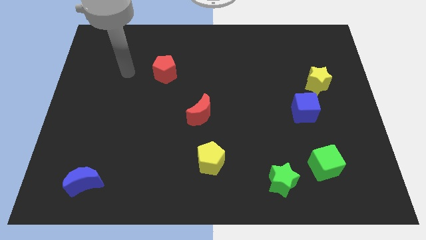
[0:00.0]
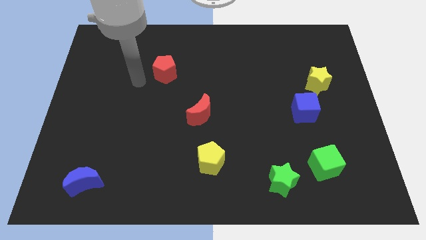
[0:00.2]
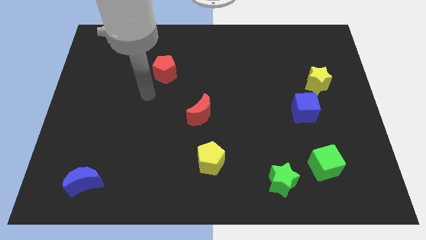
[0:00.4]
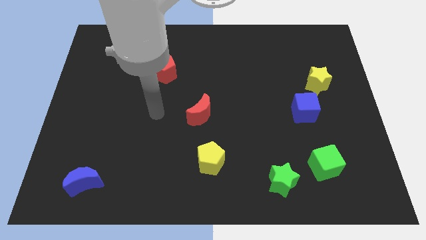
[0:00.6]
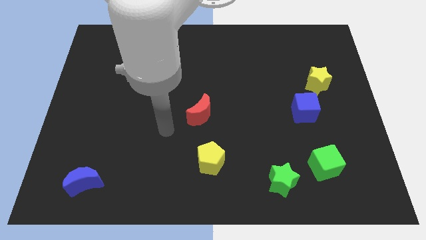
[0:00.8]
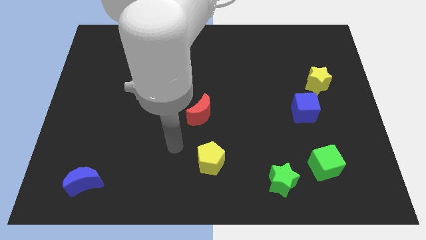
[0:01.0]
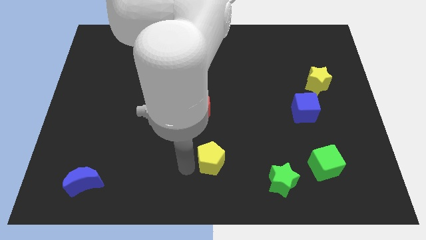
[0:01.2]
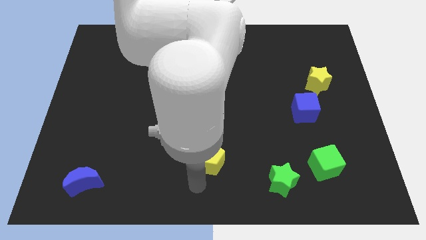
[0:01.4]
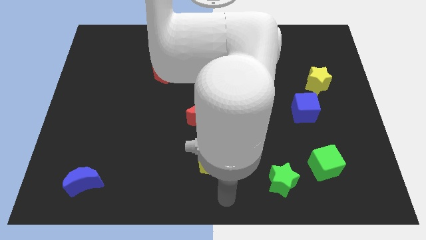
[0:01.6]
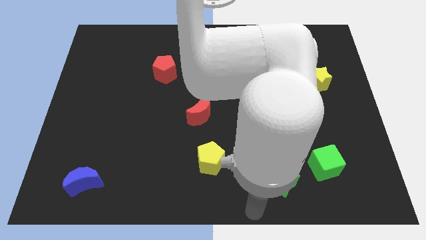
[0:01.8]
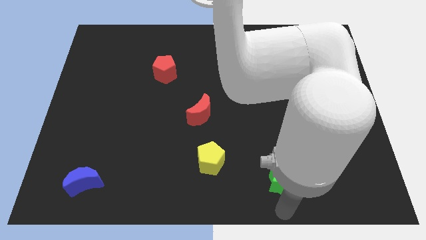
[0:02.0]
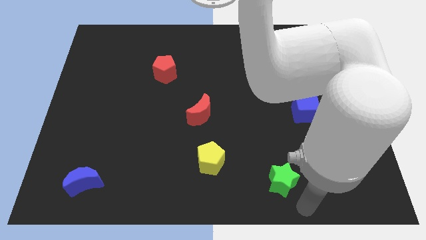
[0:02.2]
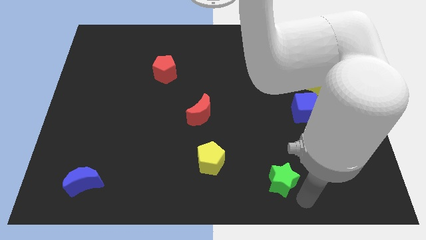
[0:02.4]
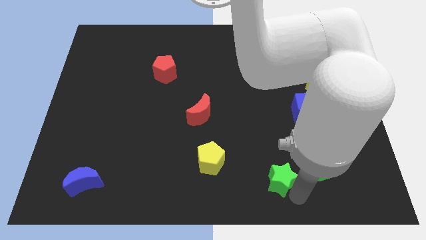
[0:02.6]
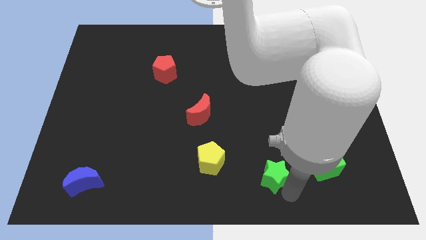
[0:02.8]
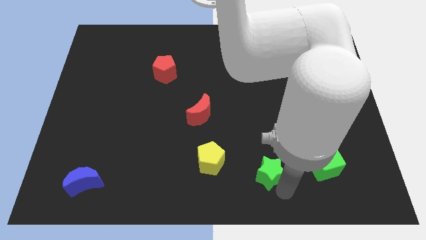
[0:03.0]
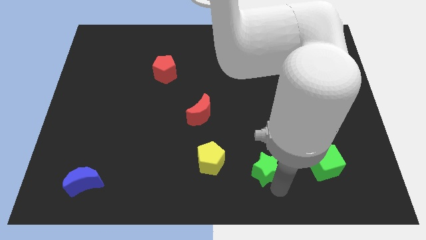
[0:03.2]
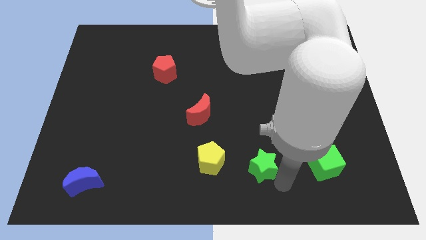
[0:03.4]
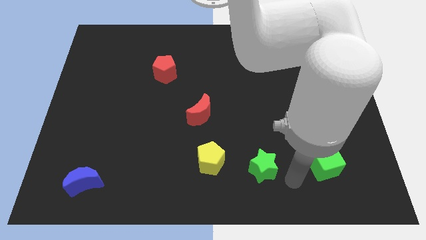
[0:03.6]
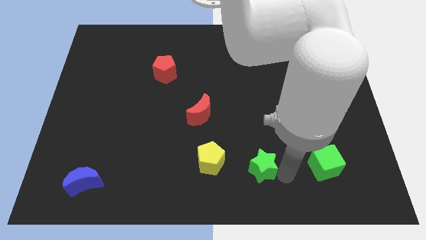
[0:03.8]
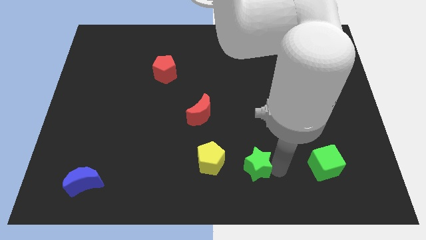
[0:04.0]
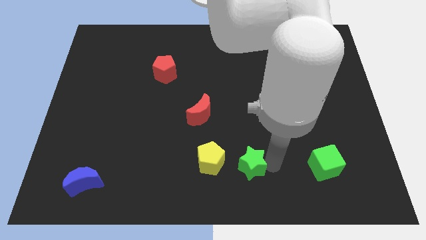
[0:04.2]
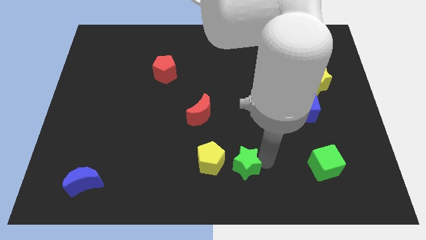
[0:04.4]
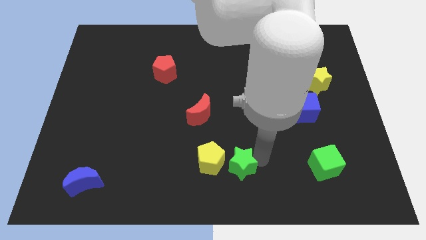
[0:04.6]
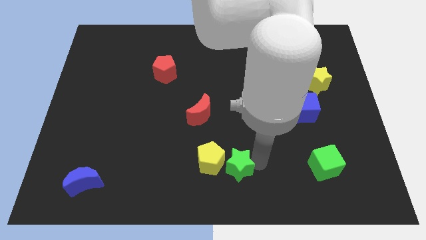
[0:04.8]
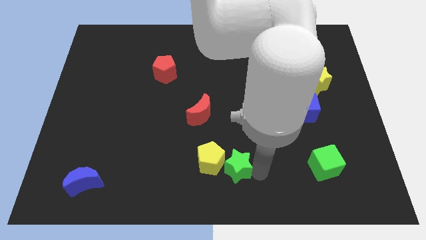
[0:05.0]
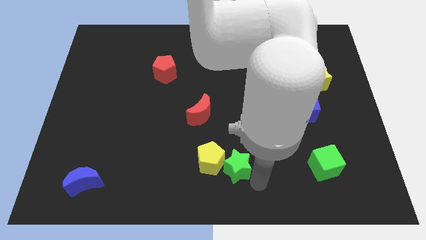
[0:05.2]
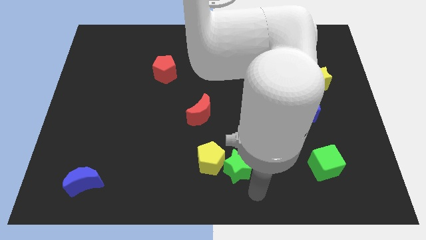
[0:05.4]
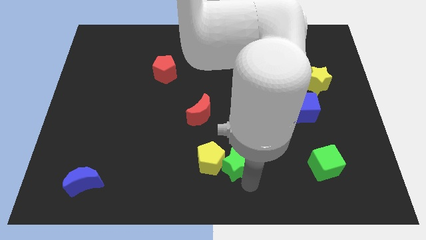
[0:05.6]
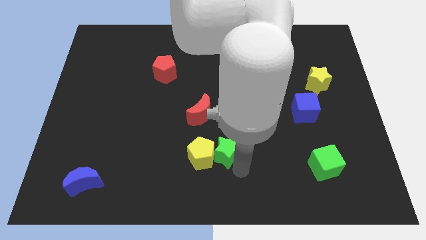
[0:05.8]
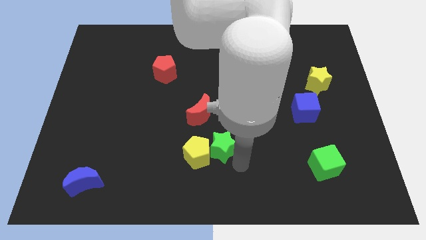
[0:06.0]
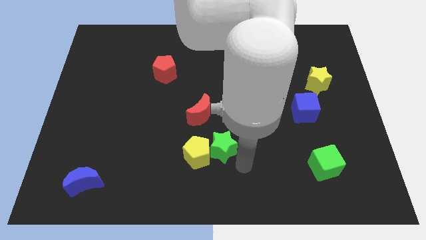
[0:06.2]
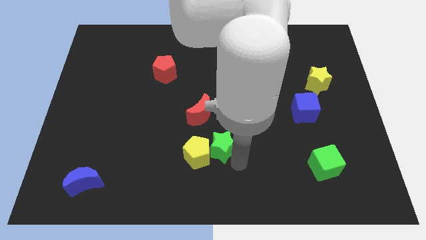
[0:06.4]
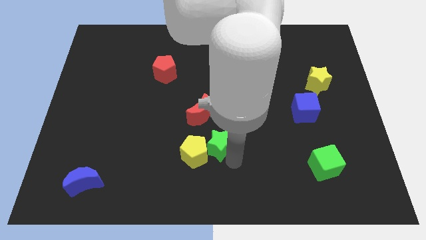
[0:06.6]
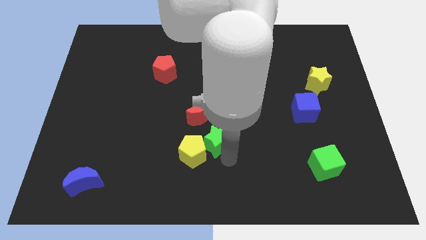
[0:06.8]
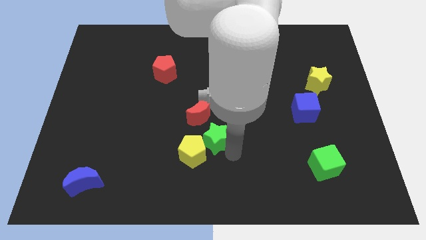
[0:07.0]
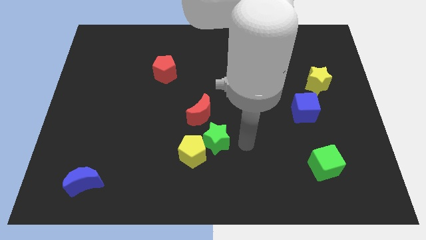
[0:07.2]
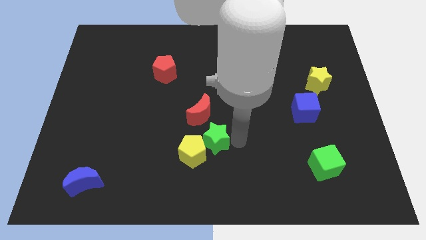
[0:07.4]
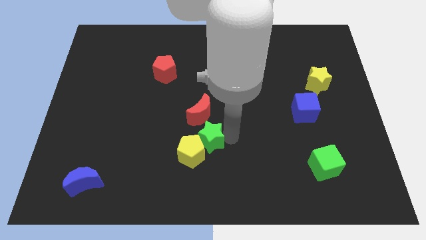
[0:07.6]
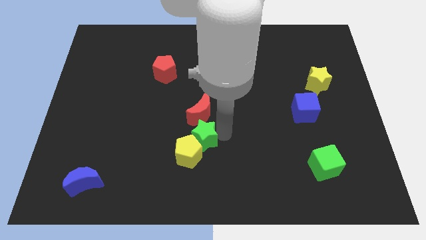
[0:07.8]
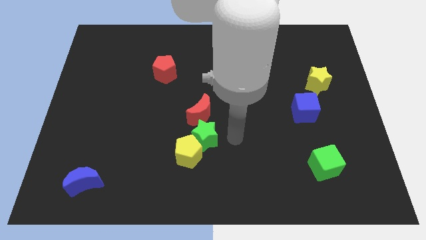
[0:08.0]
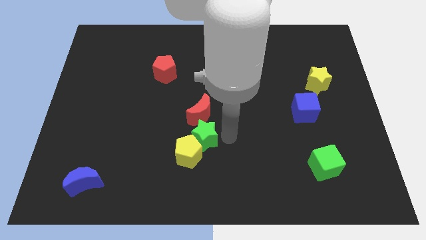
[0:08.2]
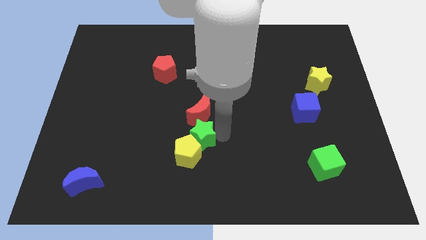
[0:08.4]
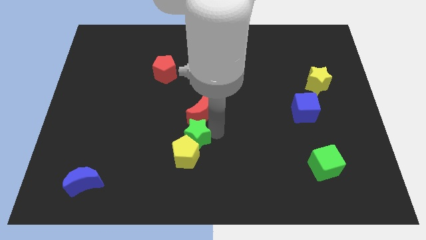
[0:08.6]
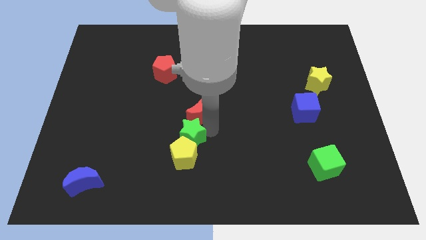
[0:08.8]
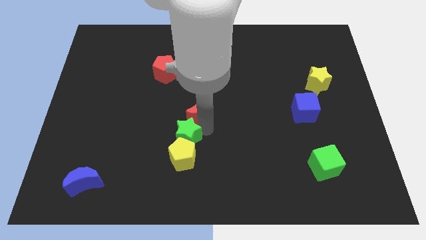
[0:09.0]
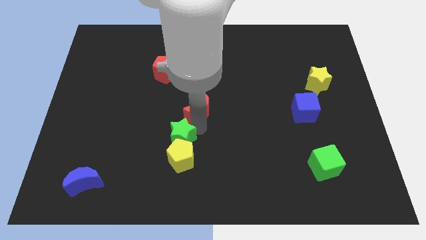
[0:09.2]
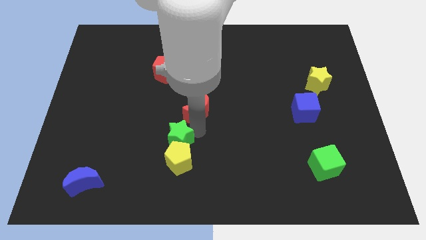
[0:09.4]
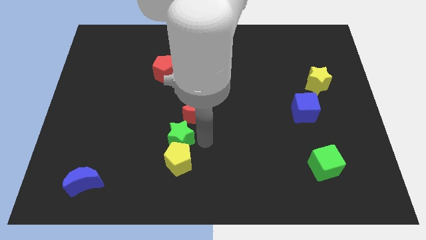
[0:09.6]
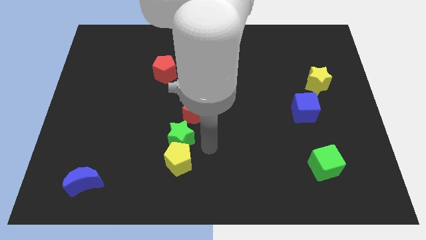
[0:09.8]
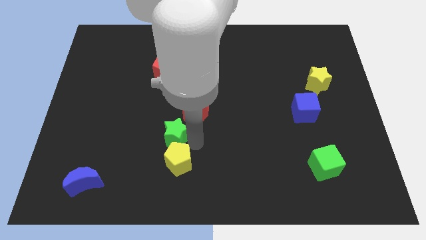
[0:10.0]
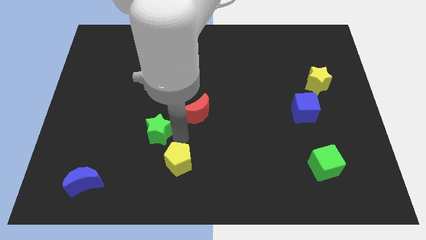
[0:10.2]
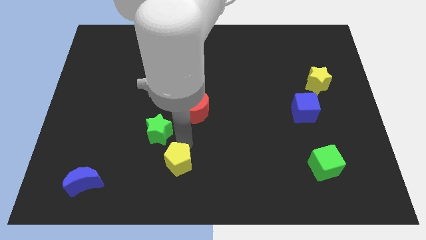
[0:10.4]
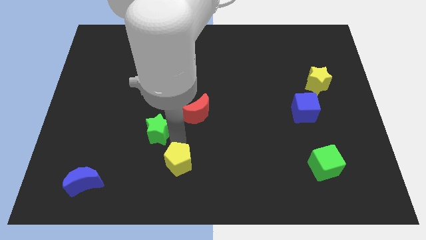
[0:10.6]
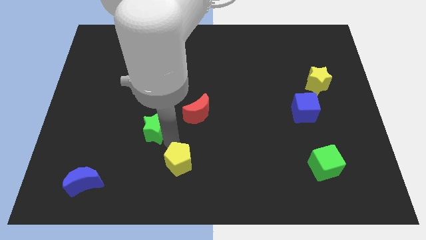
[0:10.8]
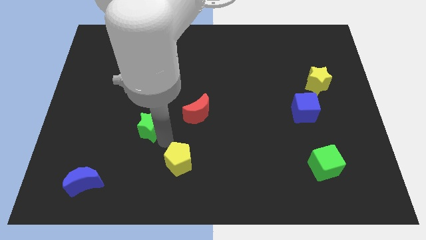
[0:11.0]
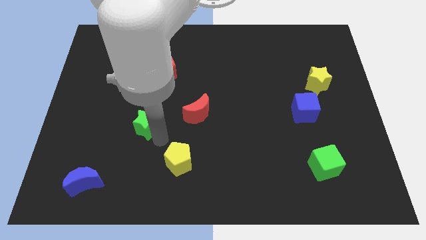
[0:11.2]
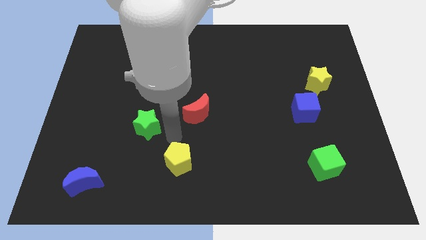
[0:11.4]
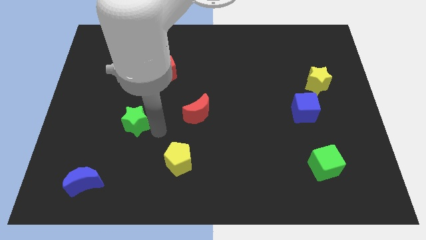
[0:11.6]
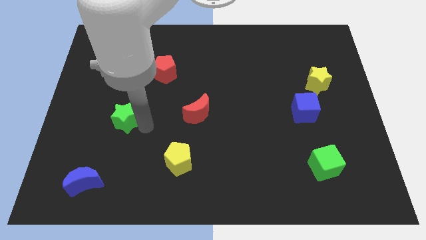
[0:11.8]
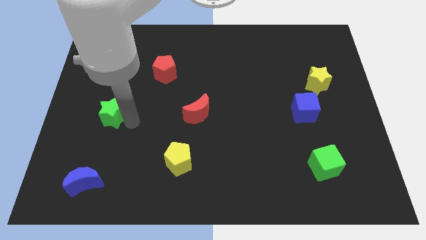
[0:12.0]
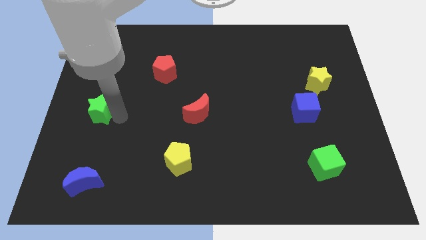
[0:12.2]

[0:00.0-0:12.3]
slide the green star to the left side of the board

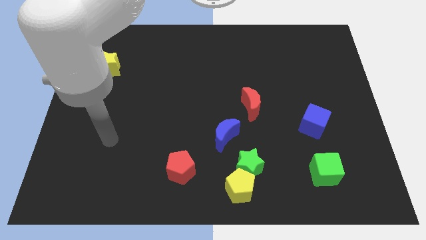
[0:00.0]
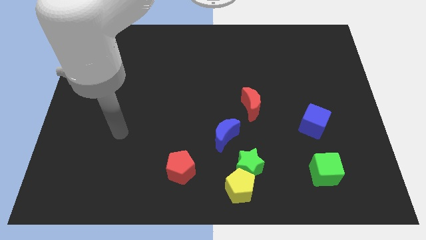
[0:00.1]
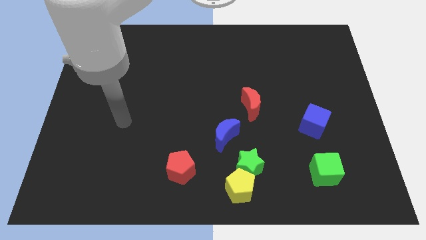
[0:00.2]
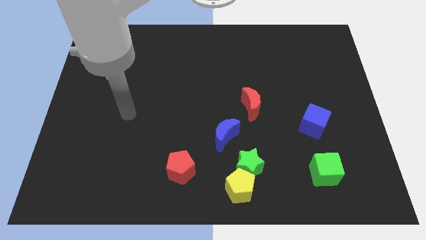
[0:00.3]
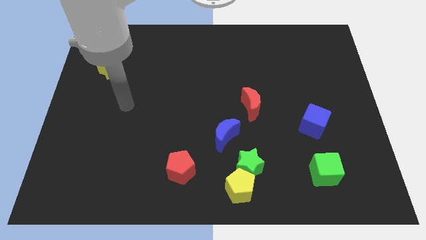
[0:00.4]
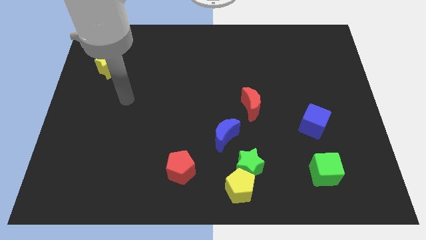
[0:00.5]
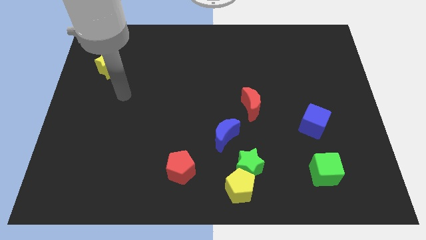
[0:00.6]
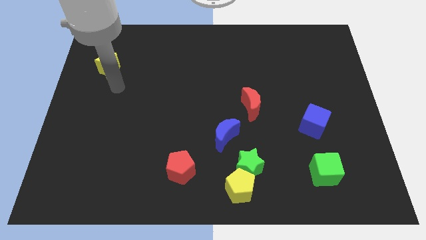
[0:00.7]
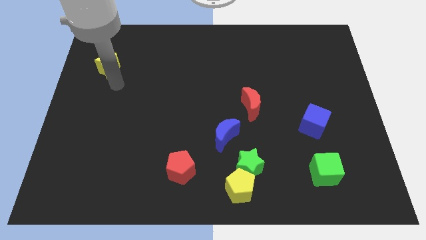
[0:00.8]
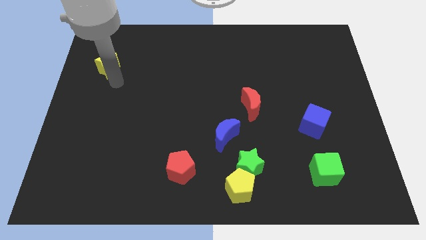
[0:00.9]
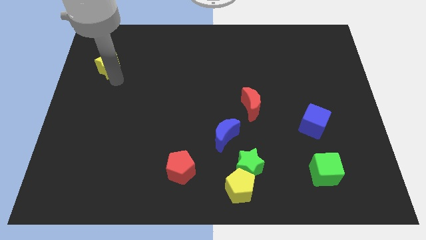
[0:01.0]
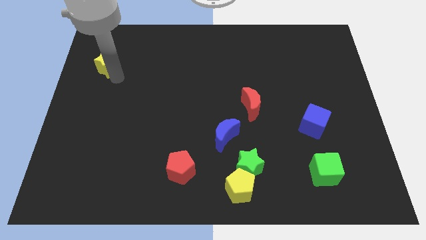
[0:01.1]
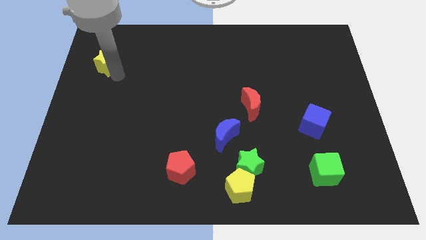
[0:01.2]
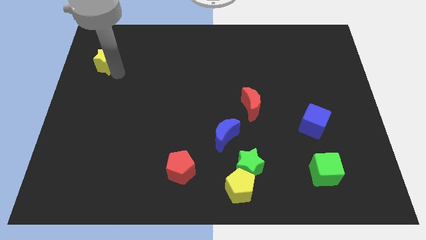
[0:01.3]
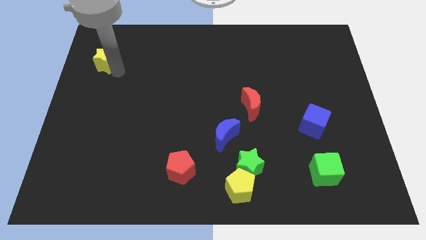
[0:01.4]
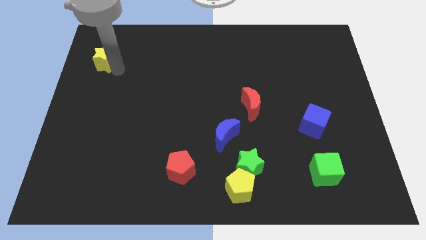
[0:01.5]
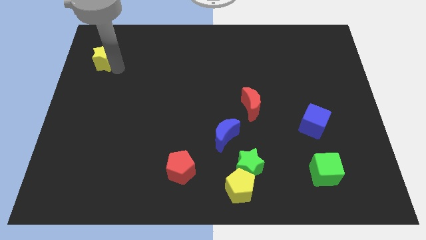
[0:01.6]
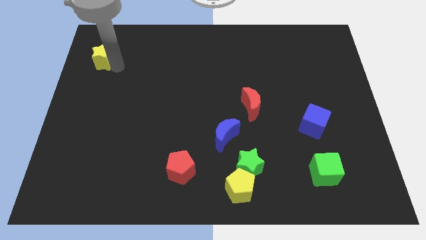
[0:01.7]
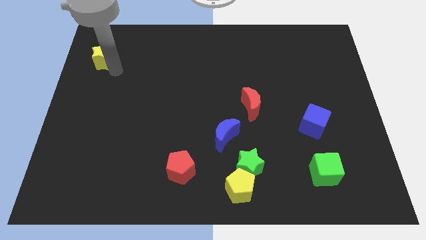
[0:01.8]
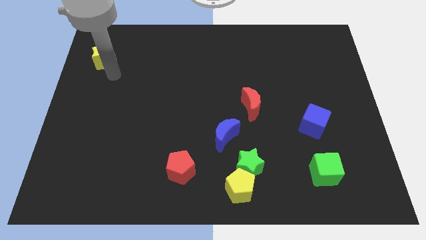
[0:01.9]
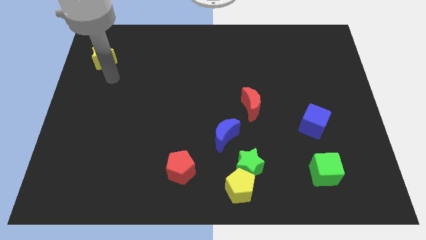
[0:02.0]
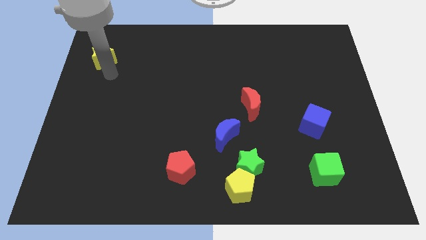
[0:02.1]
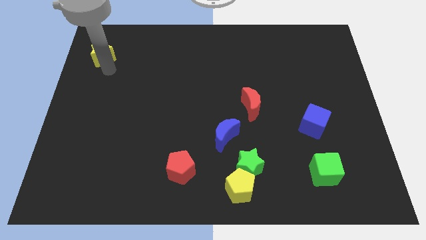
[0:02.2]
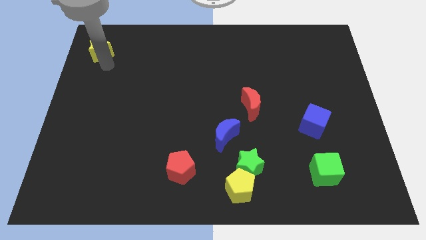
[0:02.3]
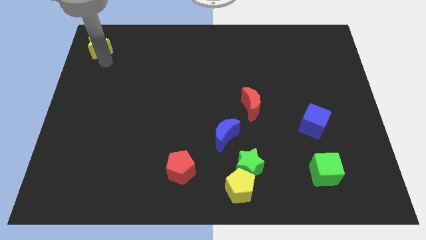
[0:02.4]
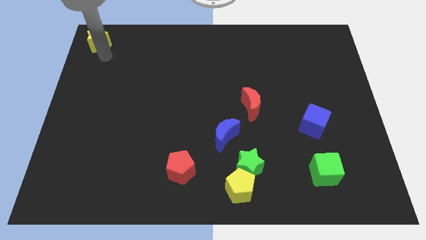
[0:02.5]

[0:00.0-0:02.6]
slide the yellow star to the top left corner
